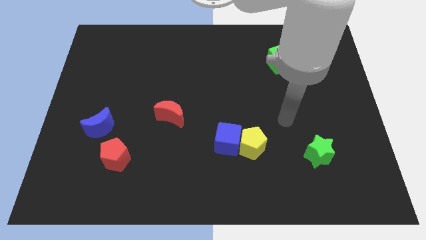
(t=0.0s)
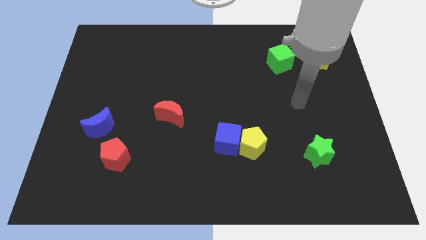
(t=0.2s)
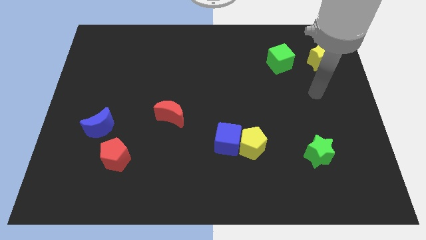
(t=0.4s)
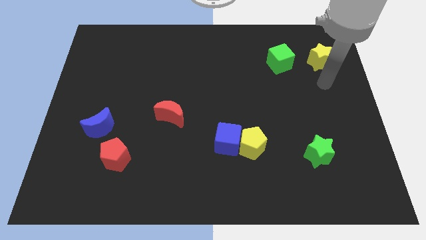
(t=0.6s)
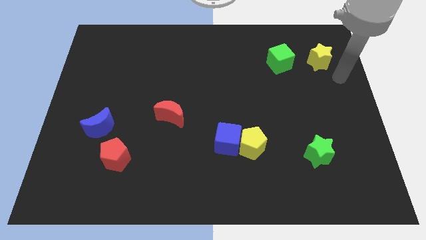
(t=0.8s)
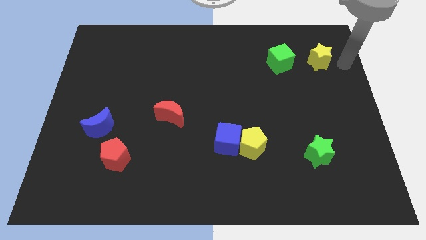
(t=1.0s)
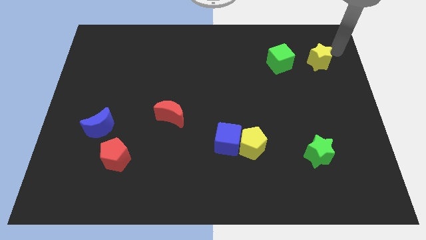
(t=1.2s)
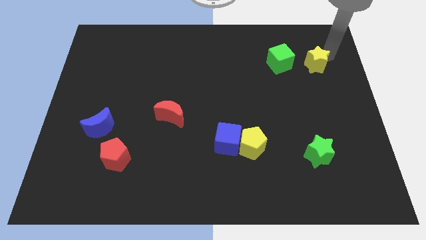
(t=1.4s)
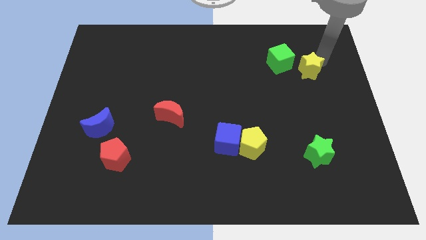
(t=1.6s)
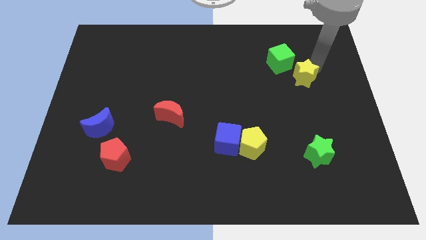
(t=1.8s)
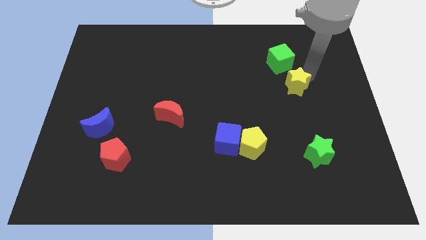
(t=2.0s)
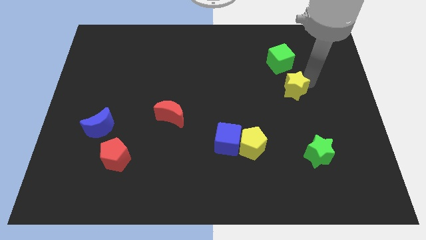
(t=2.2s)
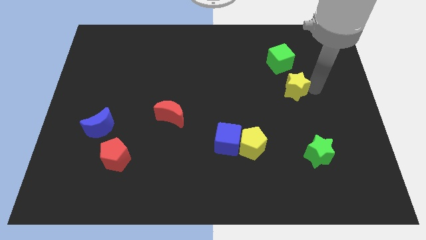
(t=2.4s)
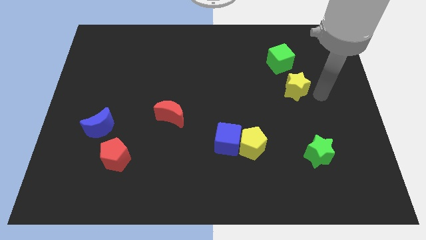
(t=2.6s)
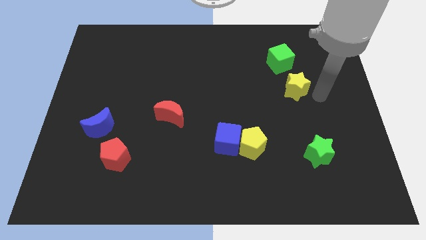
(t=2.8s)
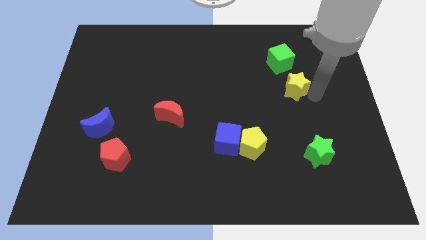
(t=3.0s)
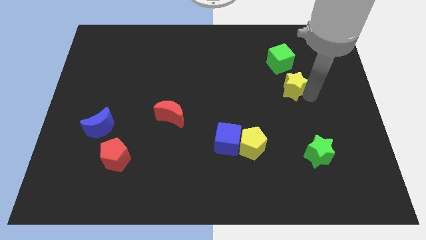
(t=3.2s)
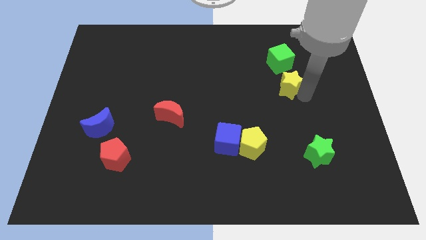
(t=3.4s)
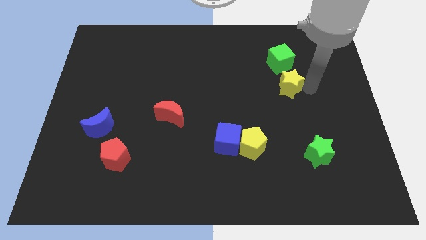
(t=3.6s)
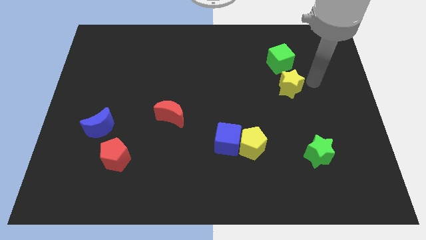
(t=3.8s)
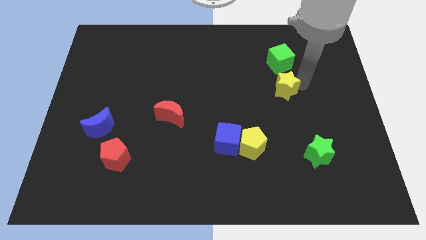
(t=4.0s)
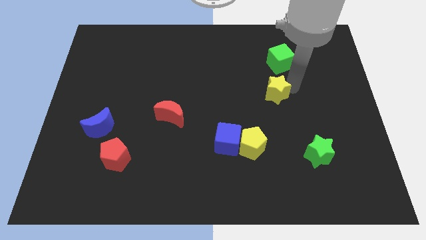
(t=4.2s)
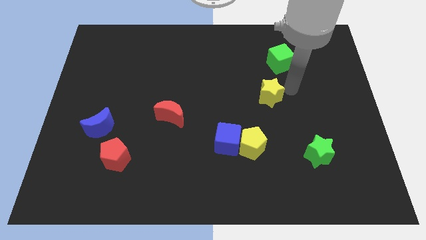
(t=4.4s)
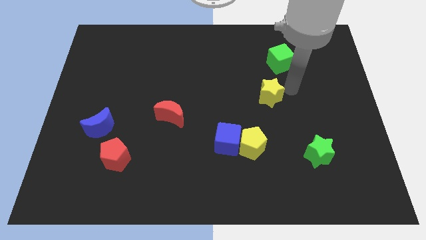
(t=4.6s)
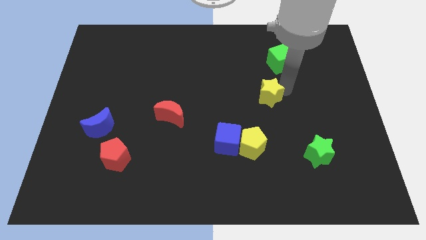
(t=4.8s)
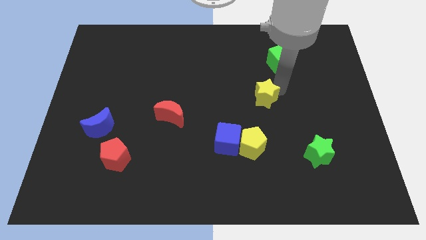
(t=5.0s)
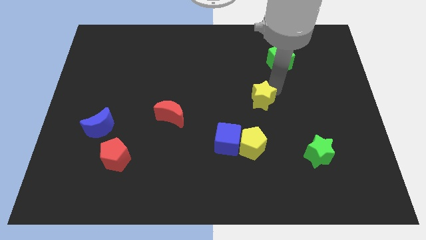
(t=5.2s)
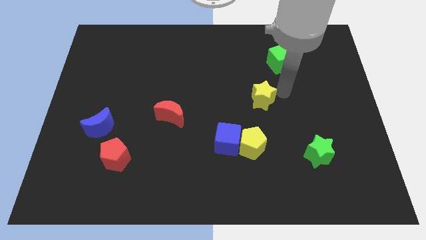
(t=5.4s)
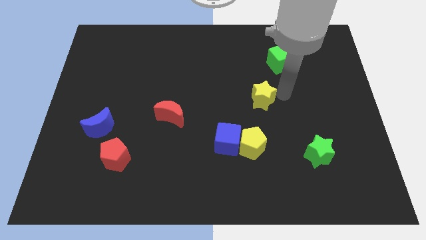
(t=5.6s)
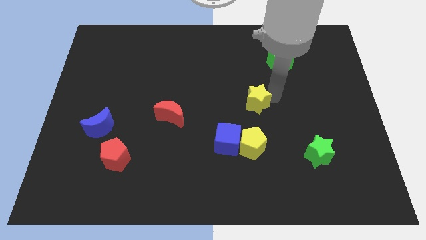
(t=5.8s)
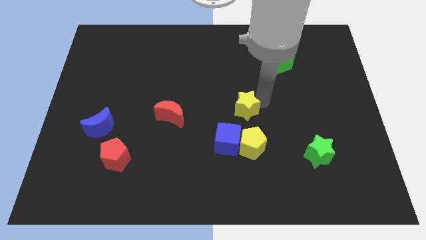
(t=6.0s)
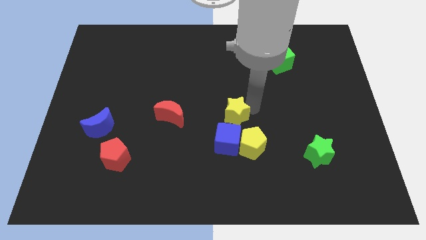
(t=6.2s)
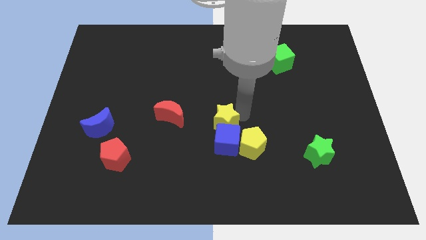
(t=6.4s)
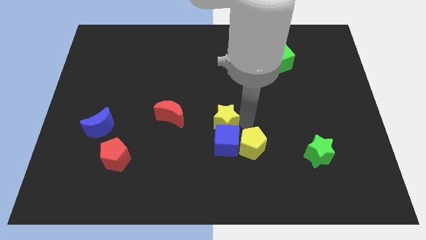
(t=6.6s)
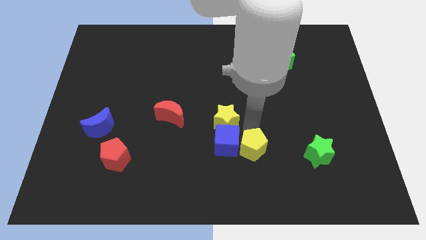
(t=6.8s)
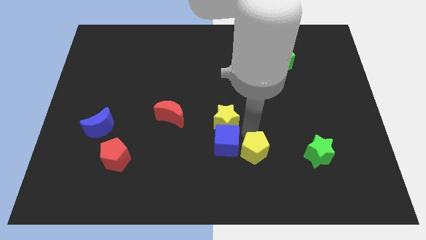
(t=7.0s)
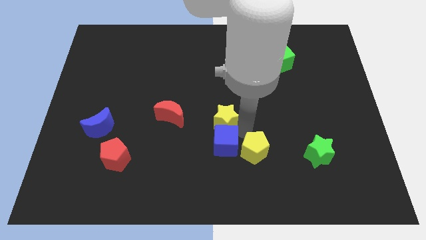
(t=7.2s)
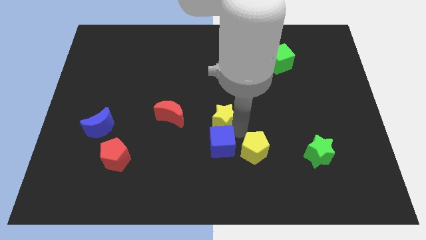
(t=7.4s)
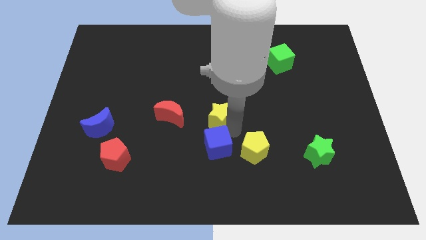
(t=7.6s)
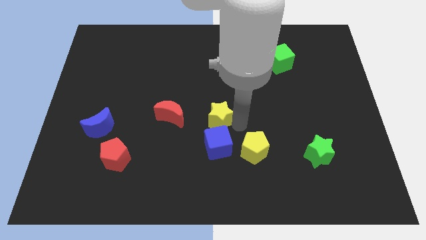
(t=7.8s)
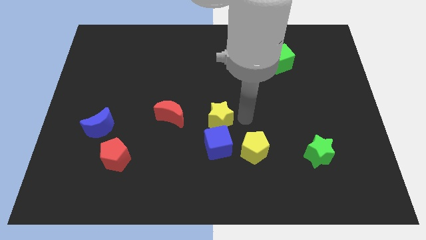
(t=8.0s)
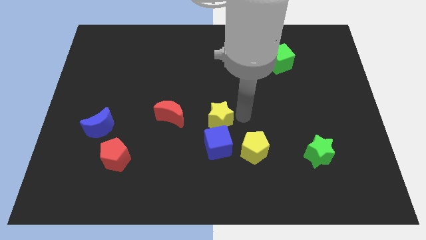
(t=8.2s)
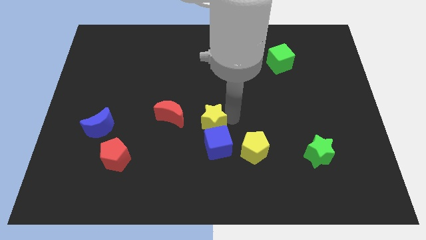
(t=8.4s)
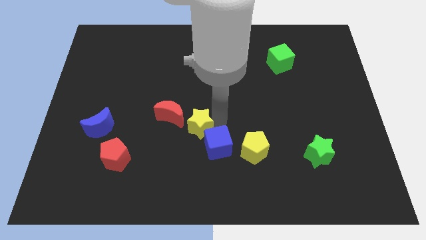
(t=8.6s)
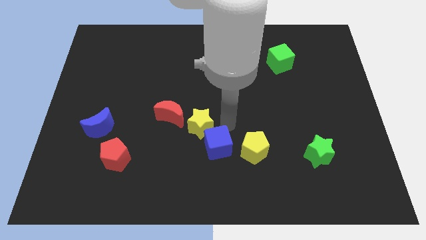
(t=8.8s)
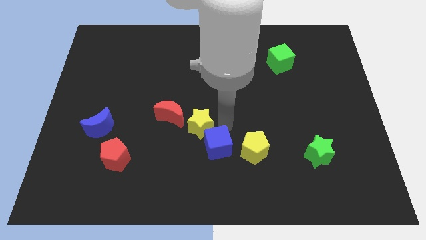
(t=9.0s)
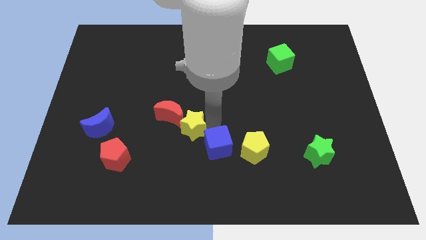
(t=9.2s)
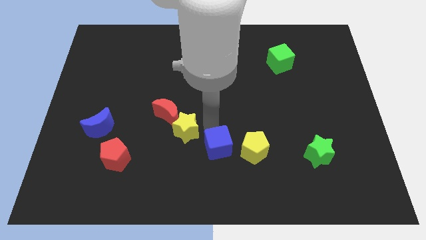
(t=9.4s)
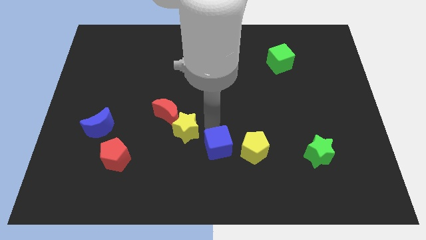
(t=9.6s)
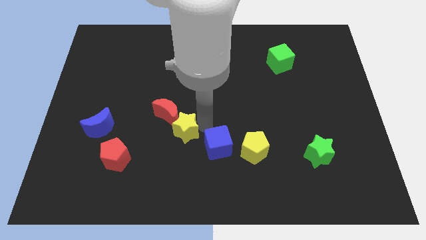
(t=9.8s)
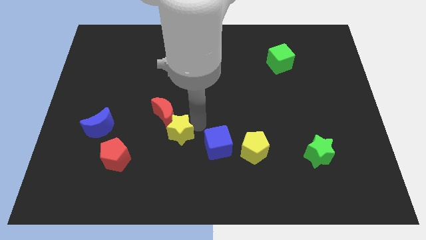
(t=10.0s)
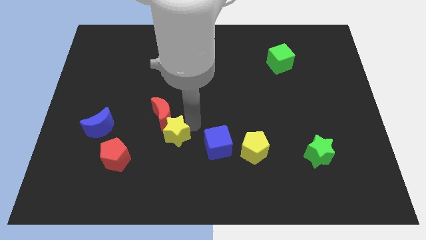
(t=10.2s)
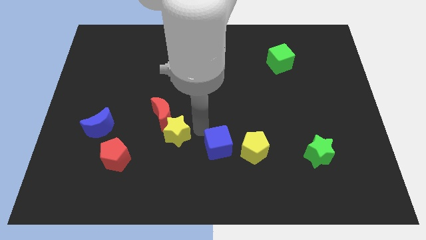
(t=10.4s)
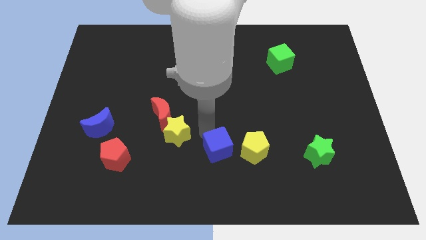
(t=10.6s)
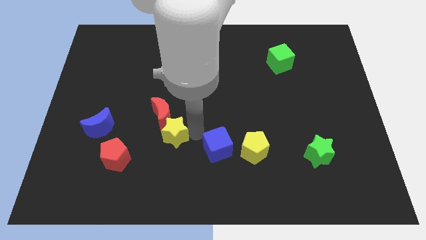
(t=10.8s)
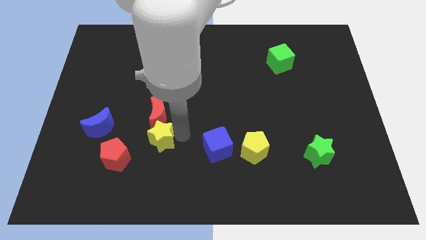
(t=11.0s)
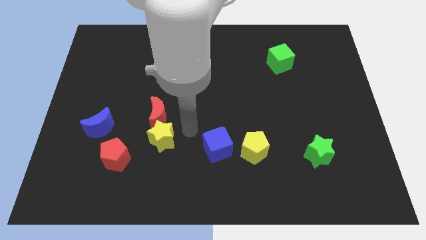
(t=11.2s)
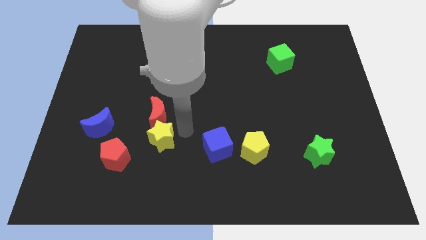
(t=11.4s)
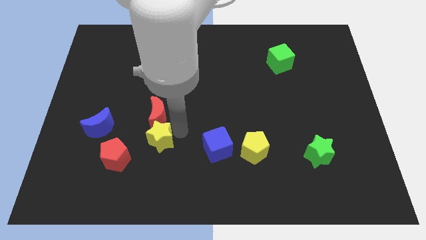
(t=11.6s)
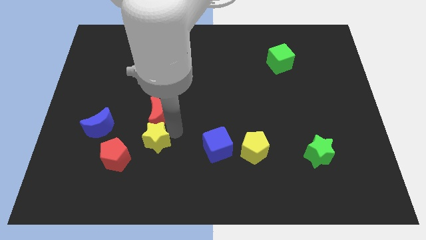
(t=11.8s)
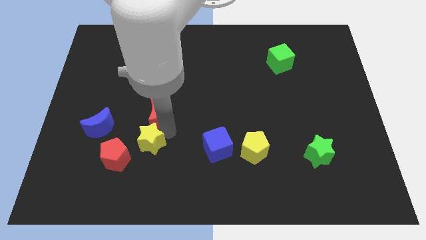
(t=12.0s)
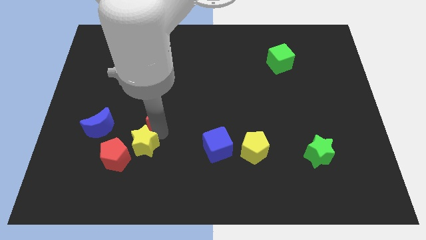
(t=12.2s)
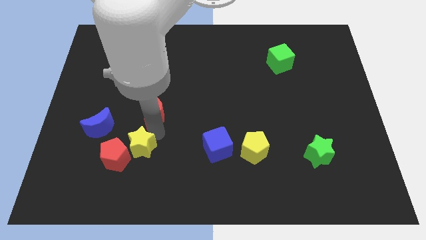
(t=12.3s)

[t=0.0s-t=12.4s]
slide the yellow star close to the red pentagon

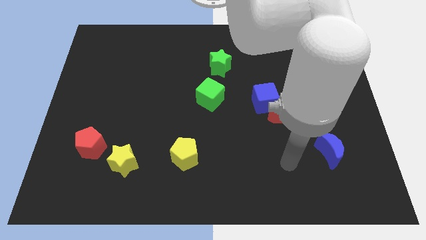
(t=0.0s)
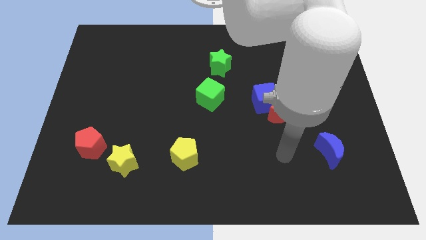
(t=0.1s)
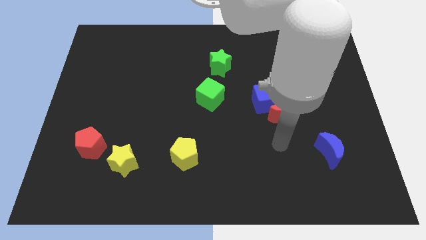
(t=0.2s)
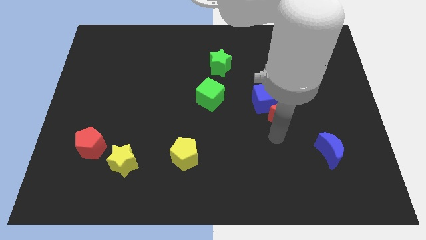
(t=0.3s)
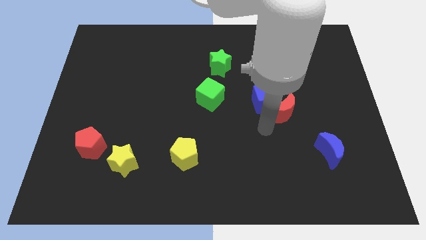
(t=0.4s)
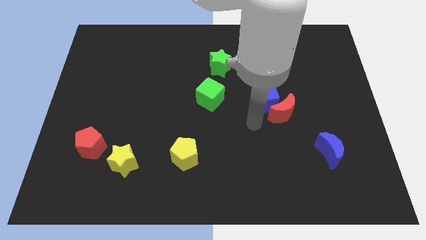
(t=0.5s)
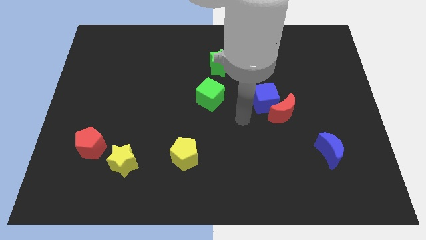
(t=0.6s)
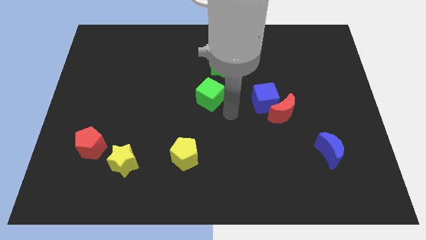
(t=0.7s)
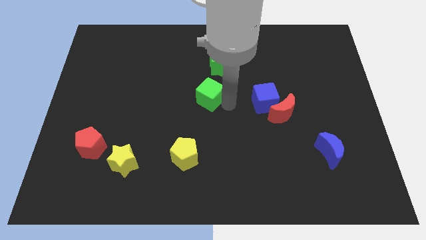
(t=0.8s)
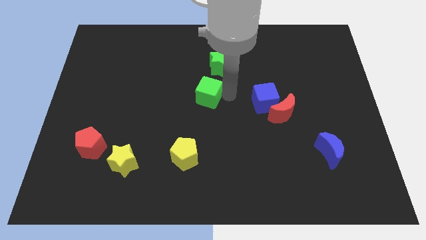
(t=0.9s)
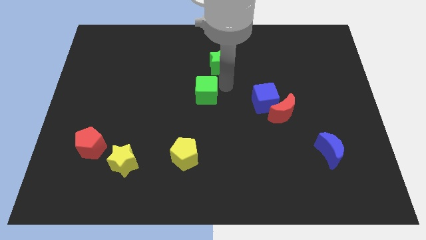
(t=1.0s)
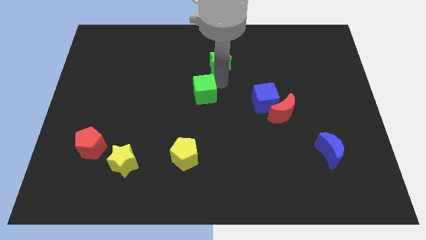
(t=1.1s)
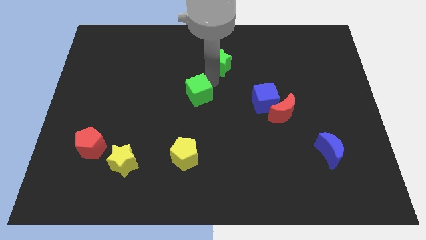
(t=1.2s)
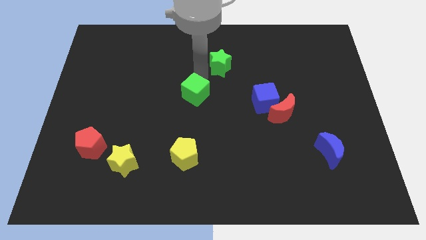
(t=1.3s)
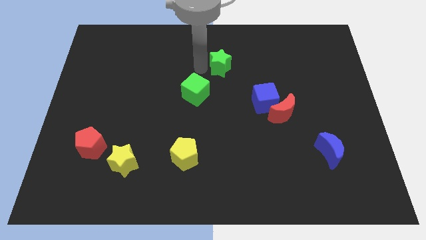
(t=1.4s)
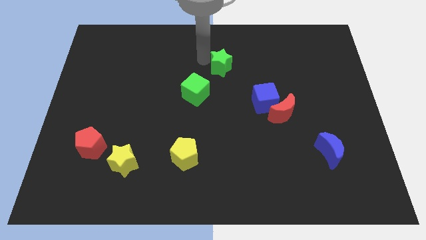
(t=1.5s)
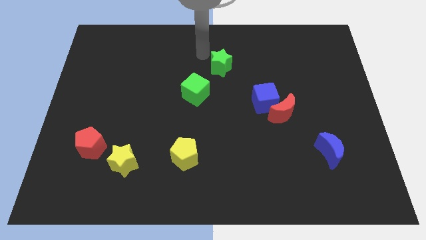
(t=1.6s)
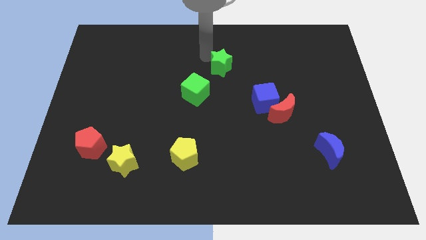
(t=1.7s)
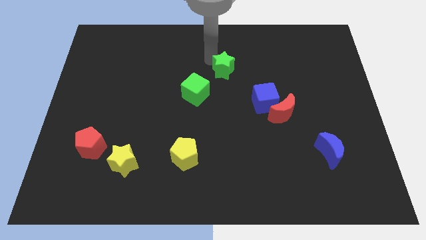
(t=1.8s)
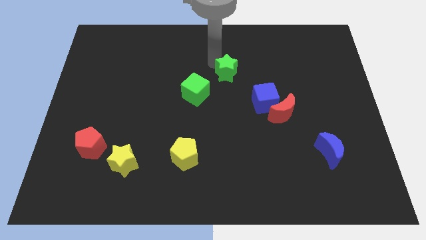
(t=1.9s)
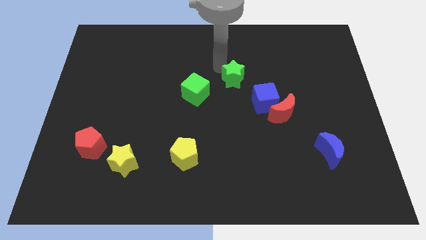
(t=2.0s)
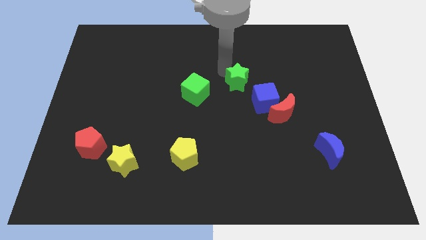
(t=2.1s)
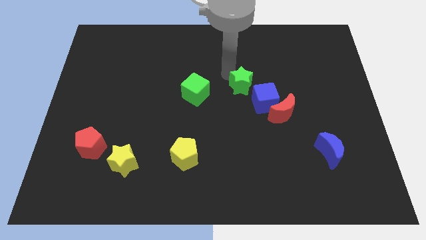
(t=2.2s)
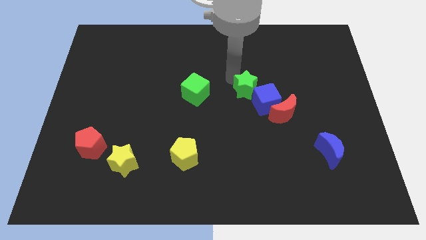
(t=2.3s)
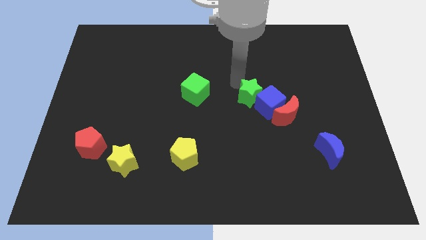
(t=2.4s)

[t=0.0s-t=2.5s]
slide the green star next to the blue cube
